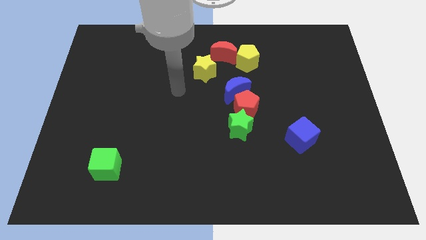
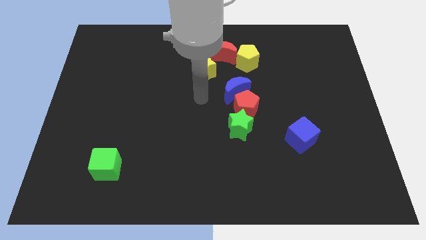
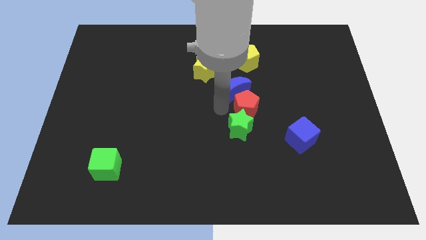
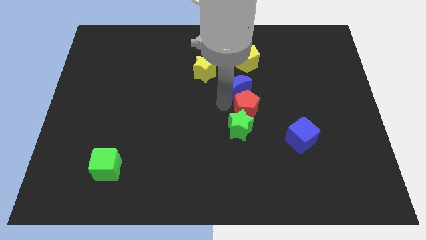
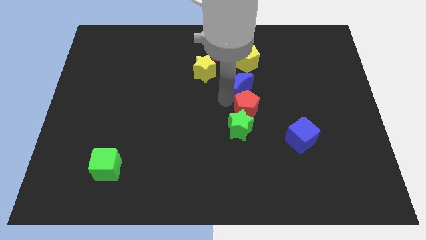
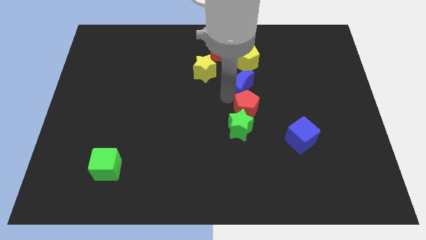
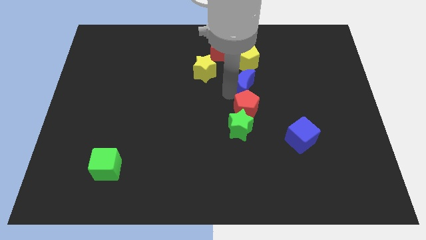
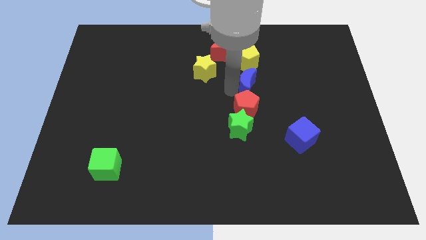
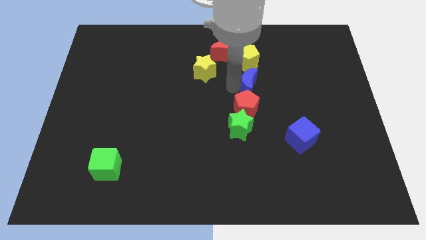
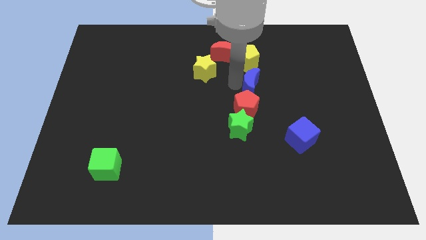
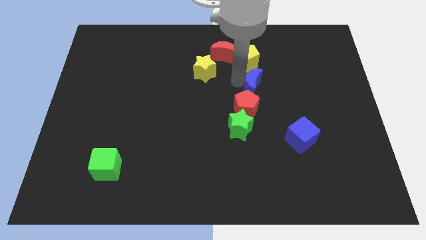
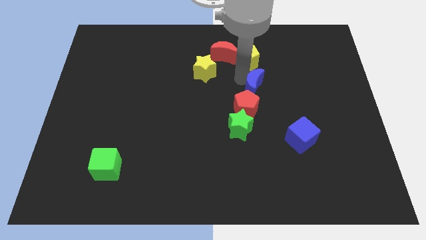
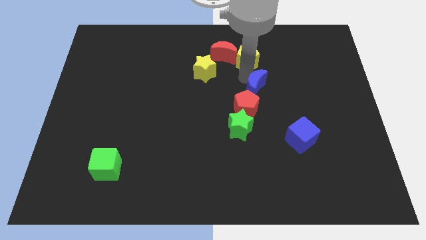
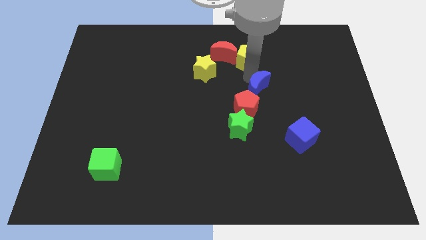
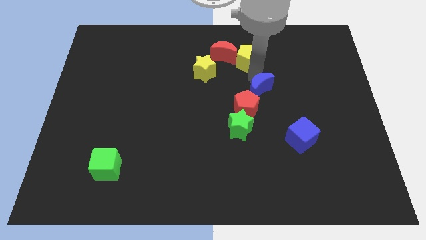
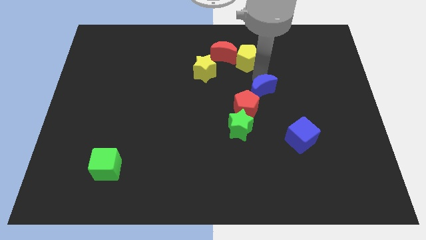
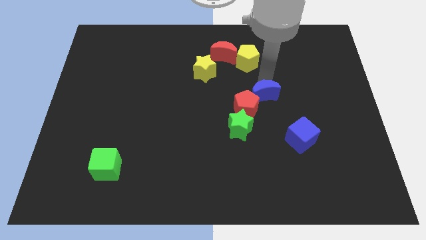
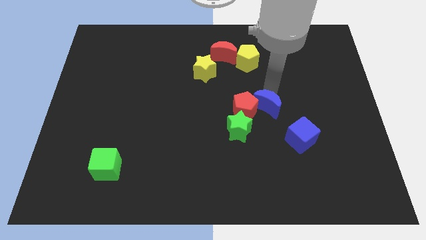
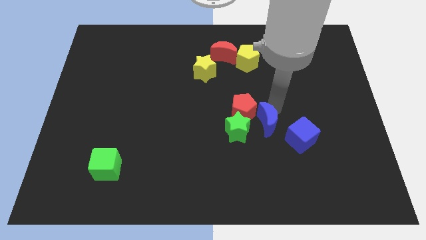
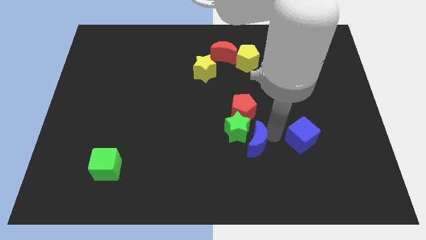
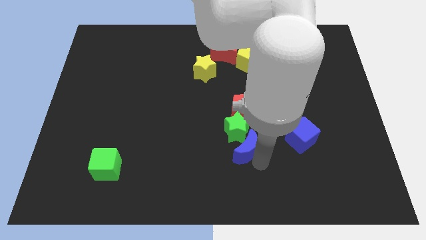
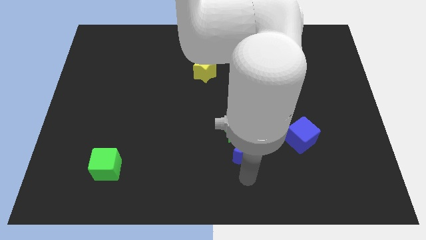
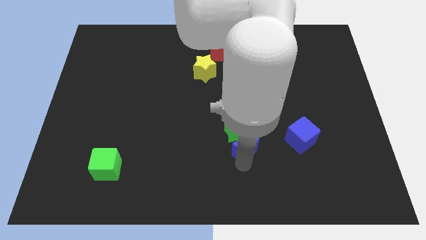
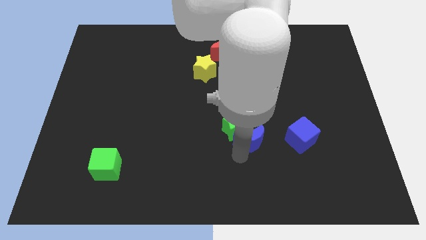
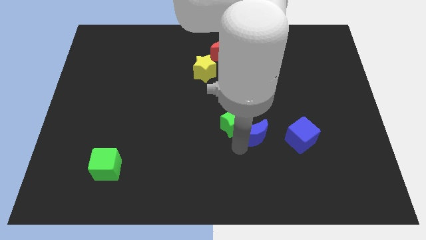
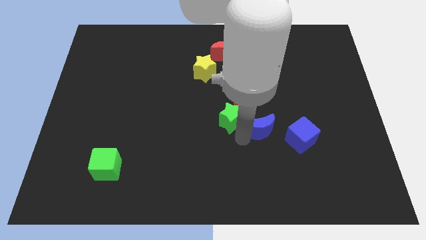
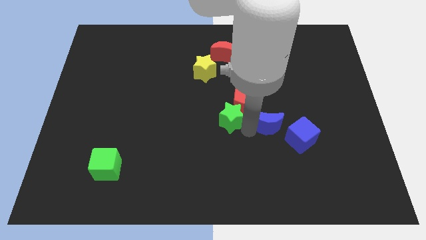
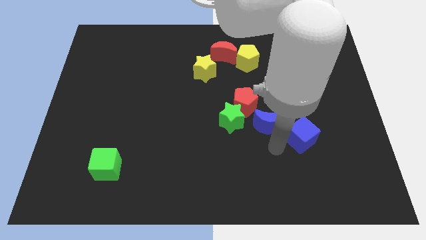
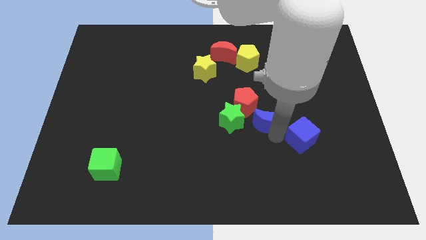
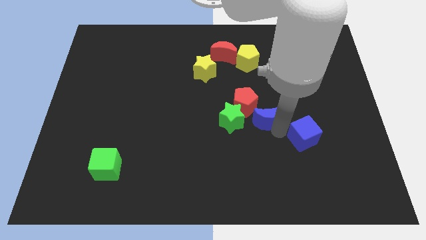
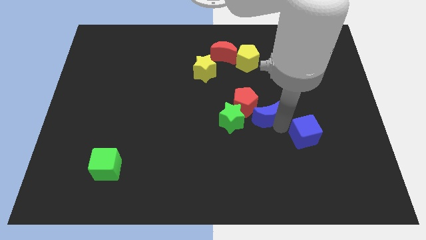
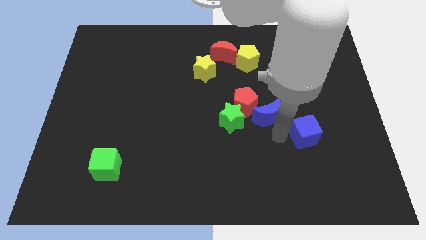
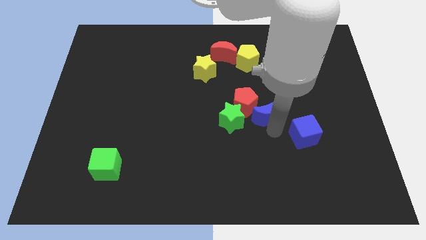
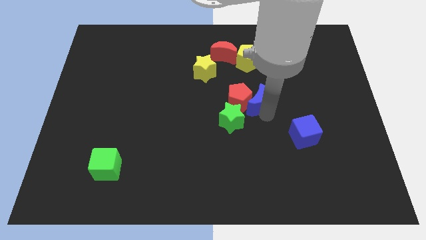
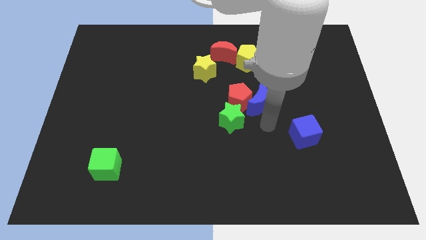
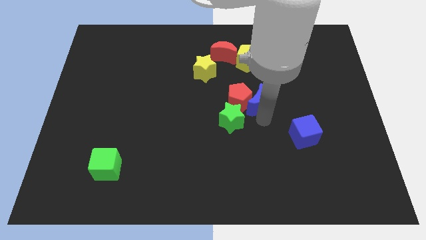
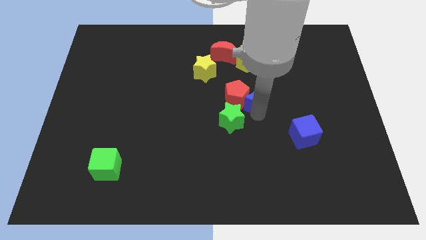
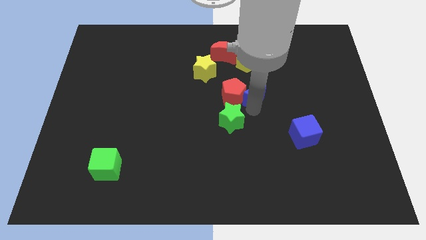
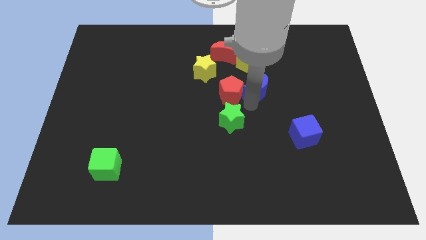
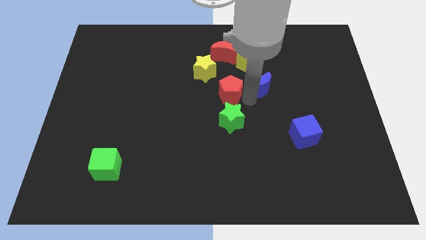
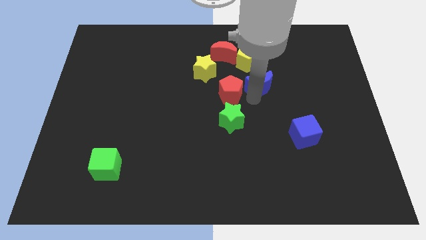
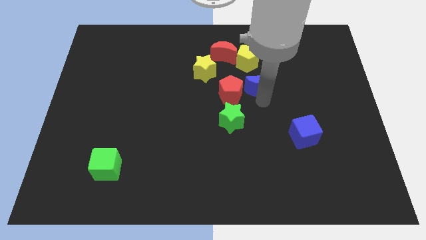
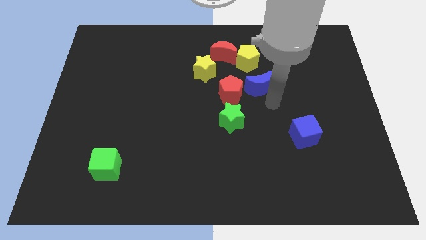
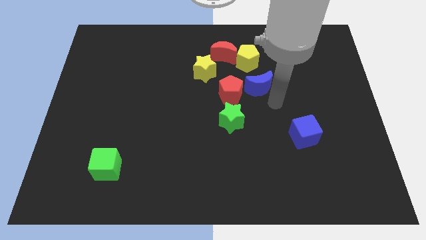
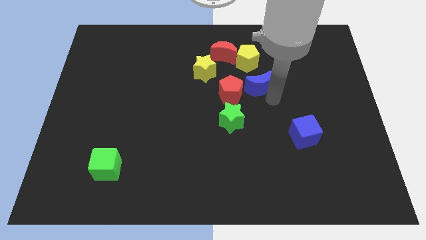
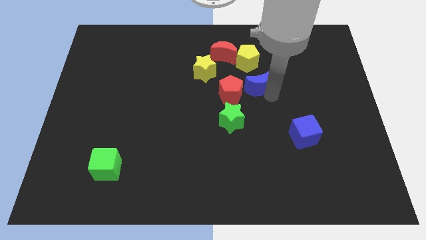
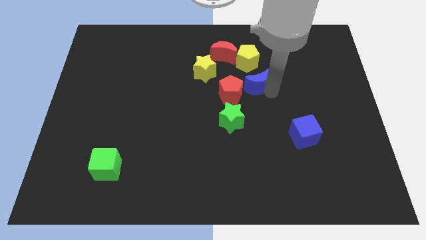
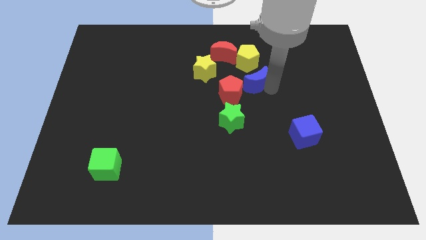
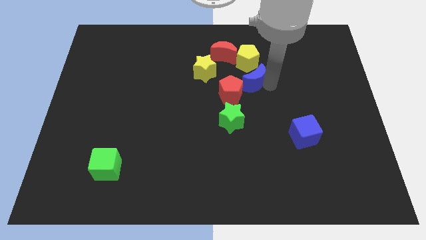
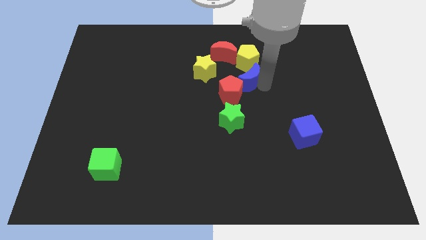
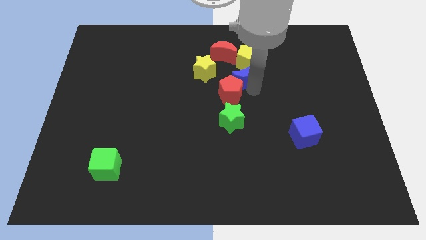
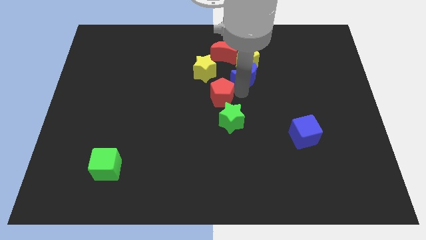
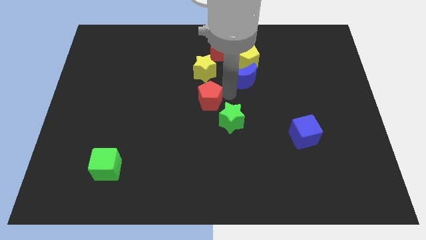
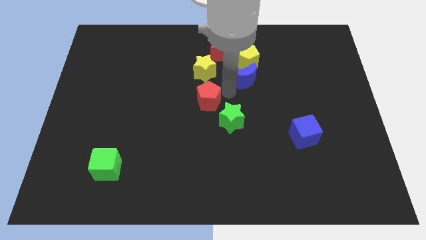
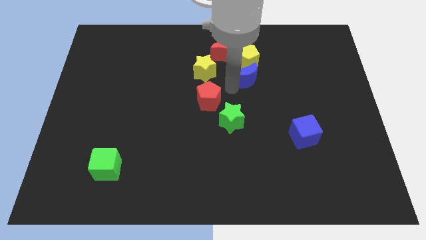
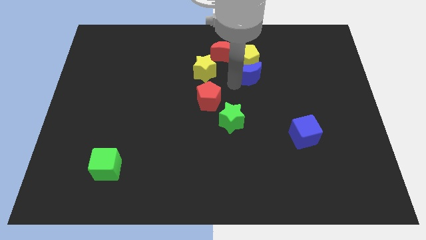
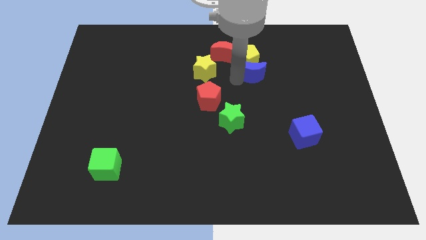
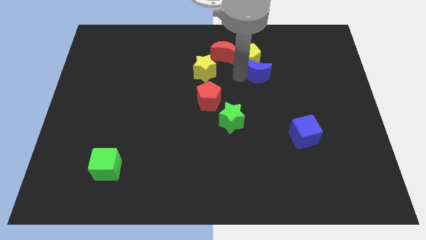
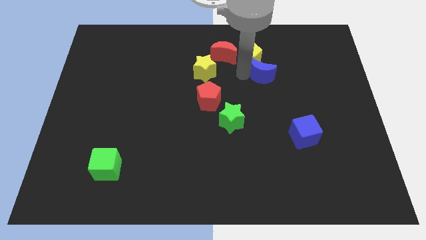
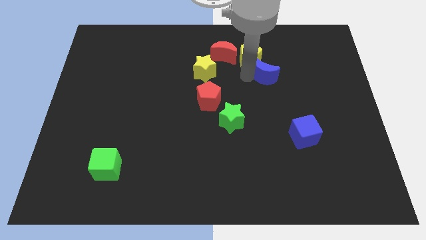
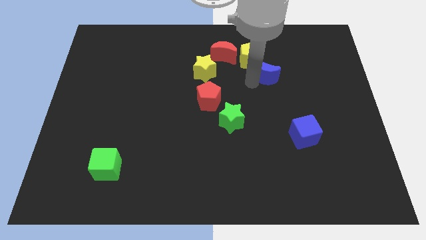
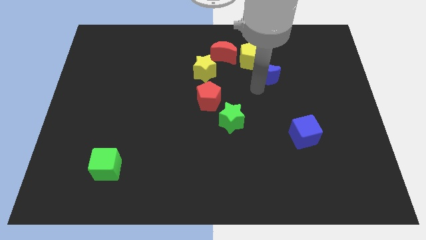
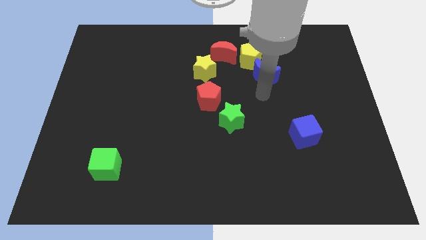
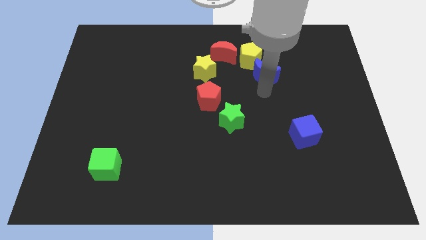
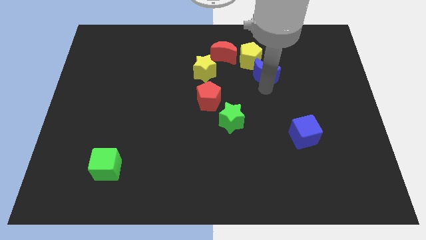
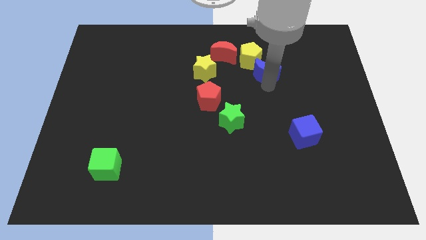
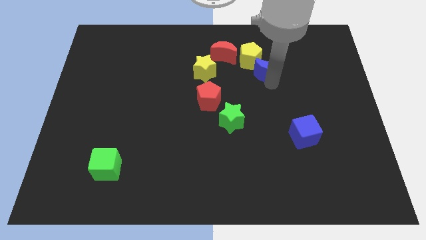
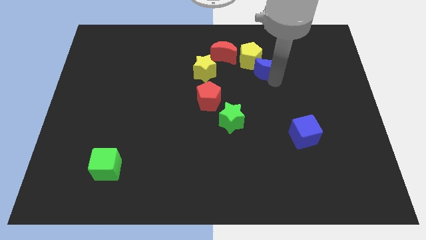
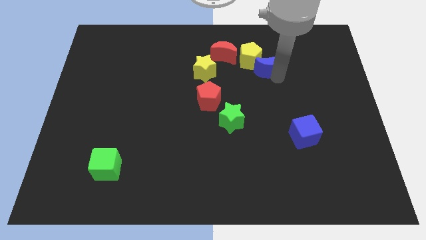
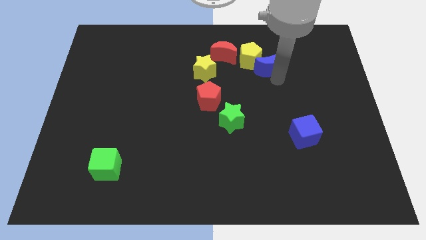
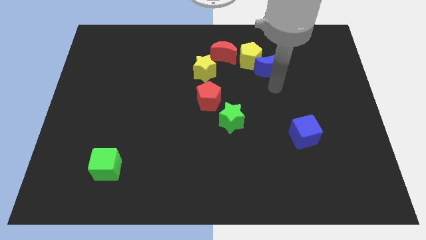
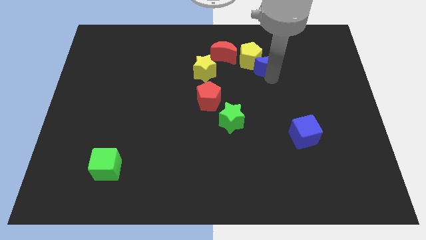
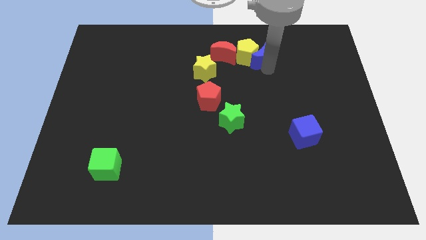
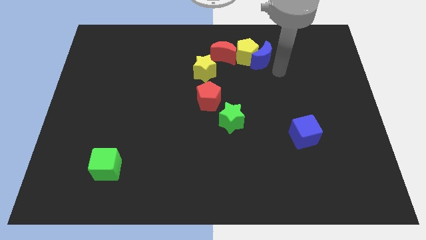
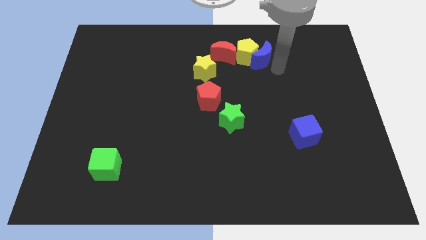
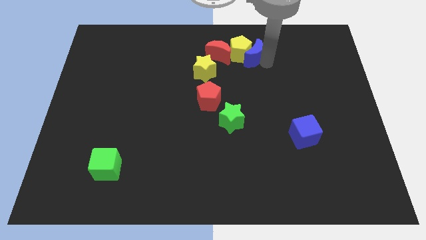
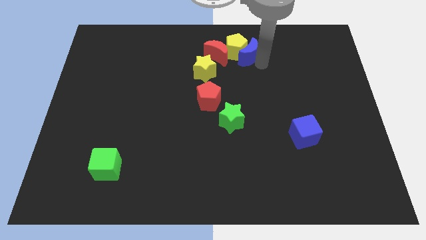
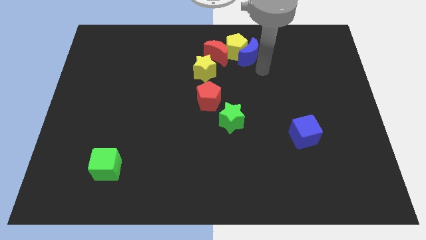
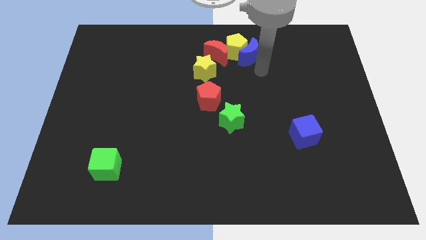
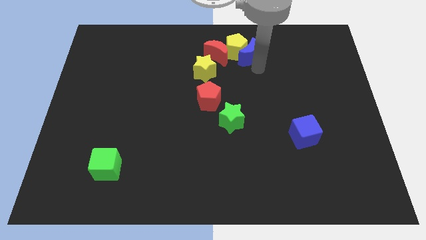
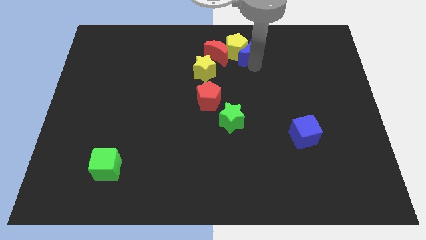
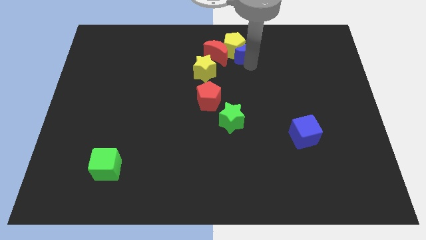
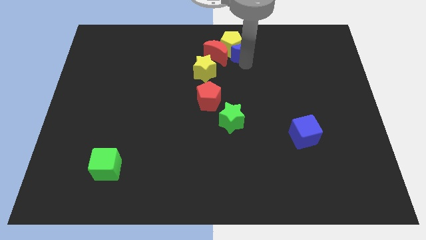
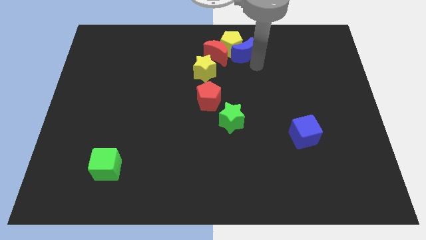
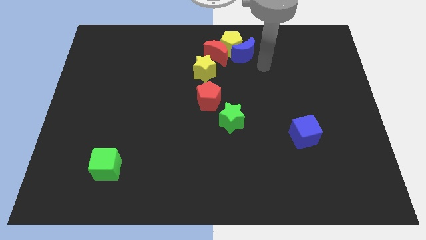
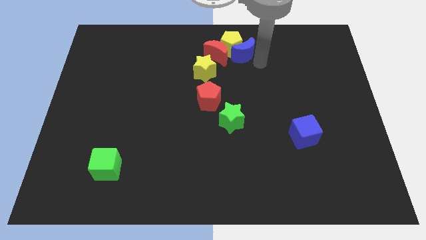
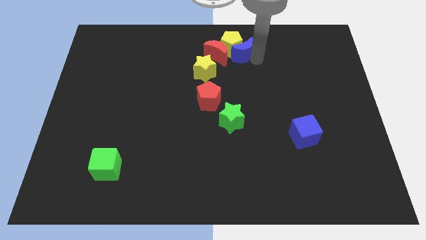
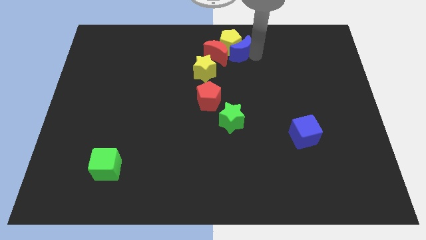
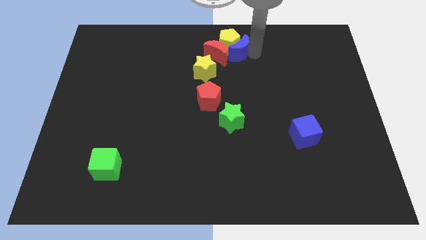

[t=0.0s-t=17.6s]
slide the blue moon to the towards your base
